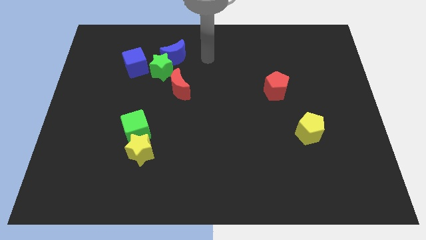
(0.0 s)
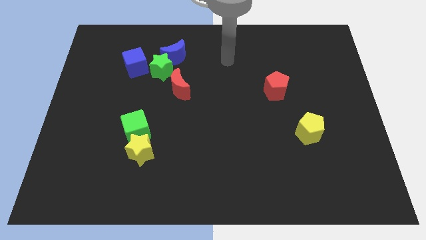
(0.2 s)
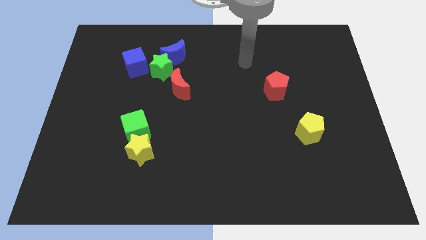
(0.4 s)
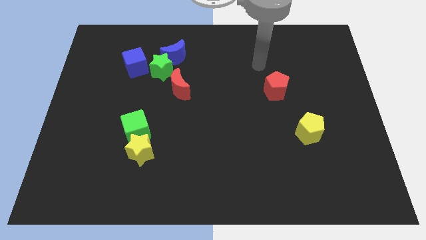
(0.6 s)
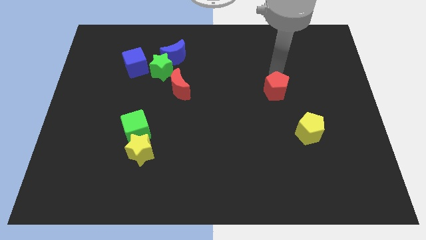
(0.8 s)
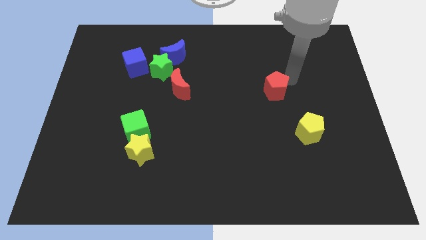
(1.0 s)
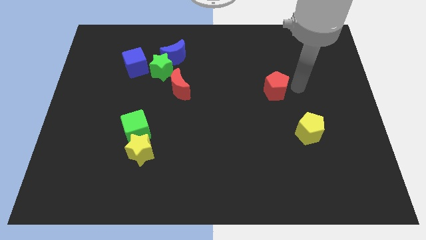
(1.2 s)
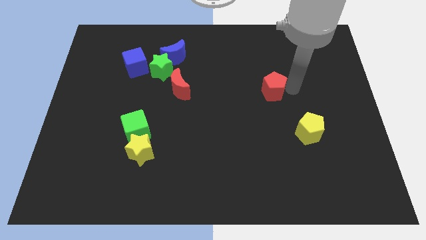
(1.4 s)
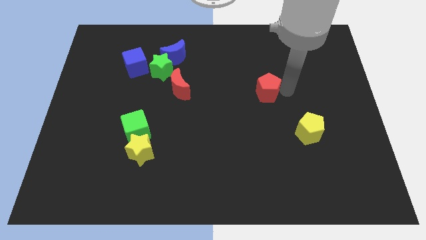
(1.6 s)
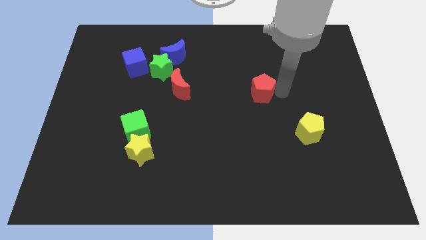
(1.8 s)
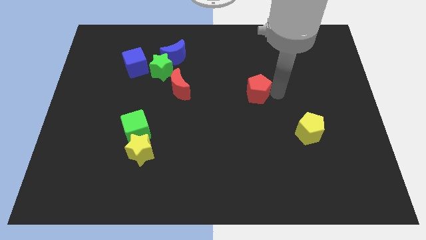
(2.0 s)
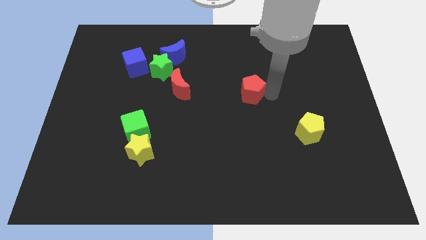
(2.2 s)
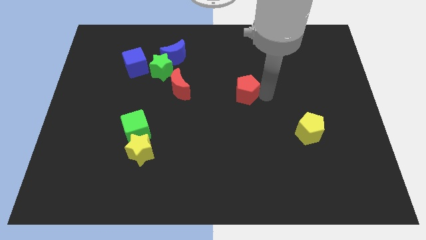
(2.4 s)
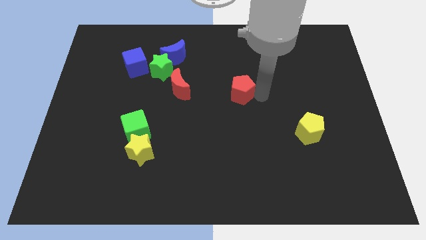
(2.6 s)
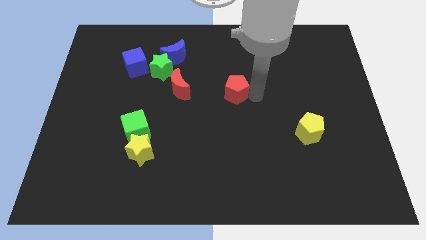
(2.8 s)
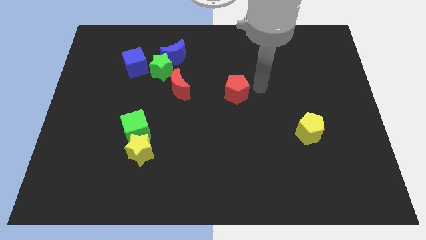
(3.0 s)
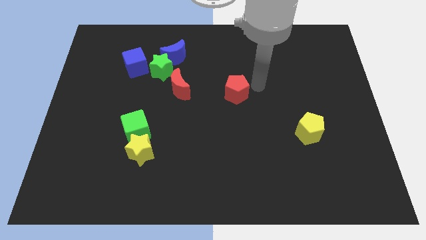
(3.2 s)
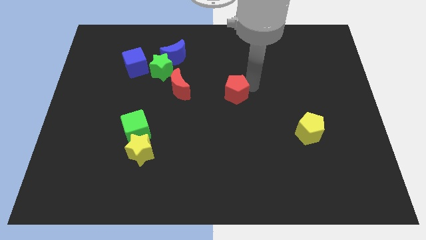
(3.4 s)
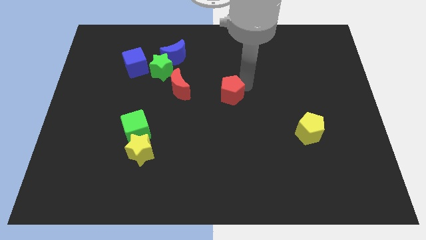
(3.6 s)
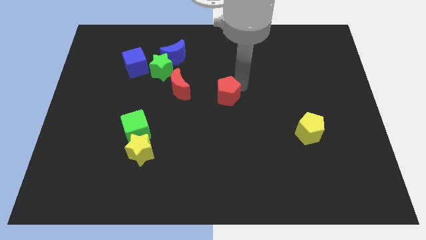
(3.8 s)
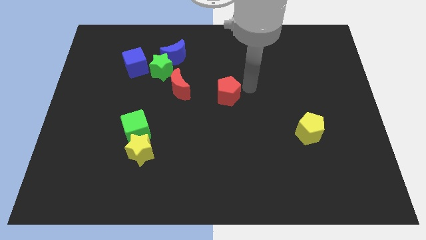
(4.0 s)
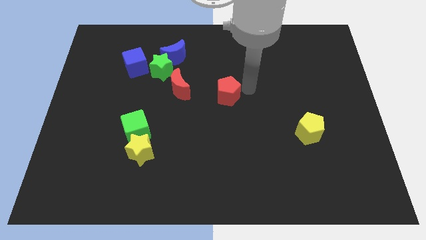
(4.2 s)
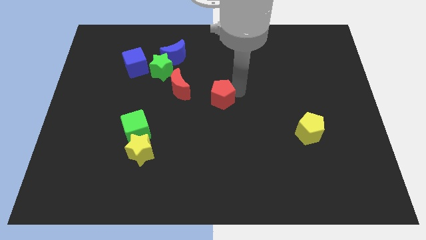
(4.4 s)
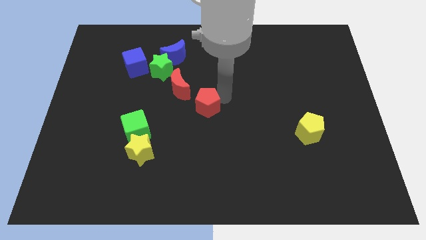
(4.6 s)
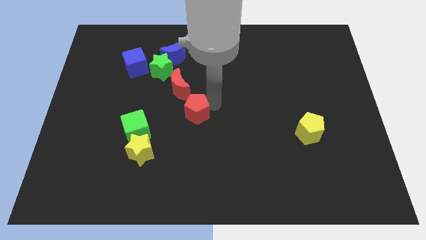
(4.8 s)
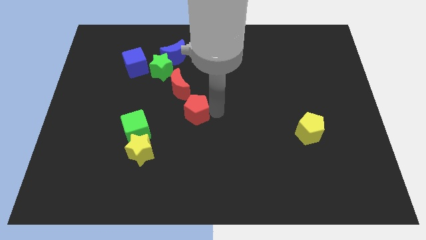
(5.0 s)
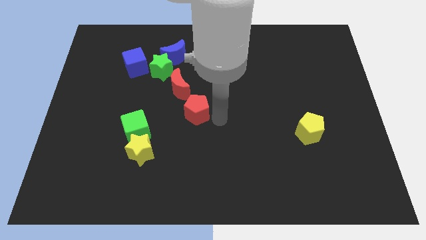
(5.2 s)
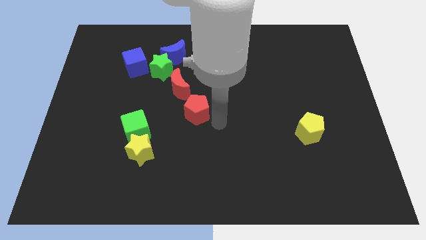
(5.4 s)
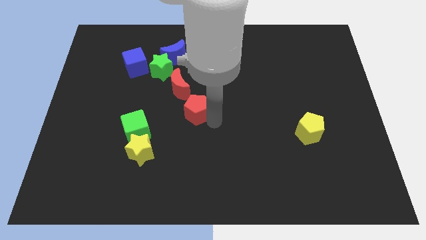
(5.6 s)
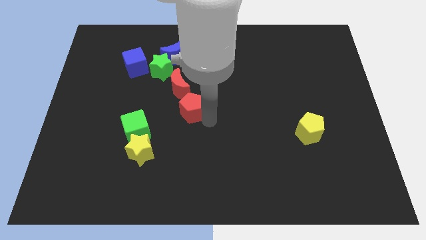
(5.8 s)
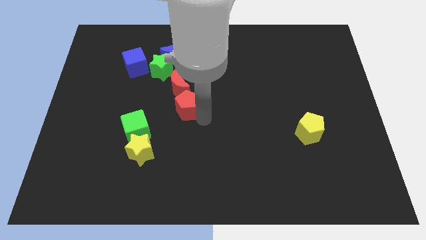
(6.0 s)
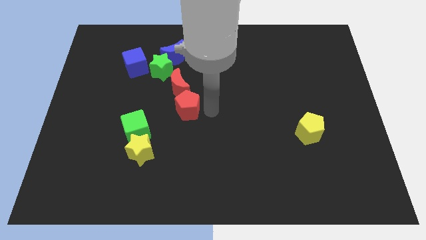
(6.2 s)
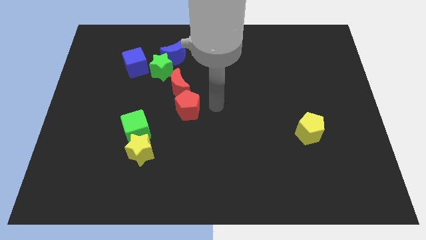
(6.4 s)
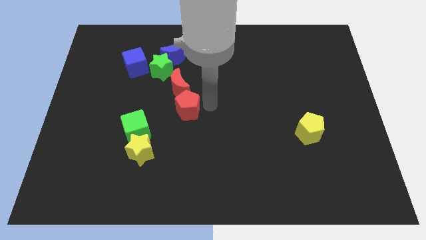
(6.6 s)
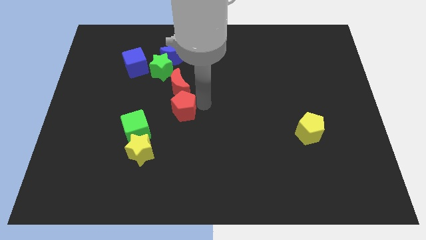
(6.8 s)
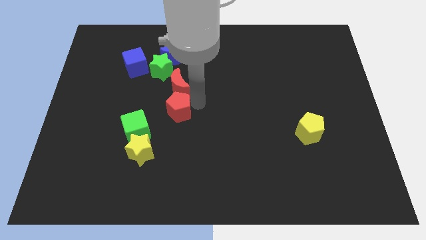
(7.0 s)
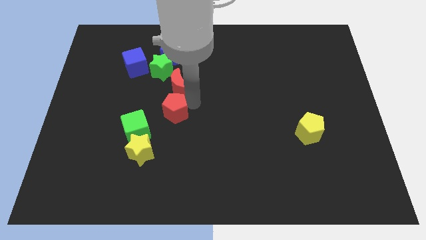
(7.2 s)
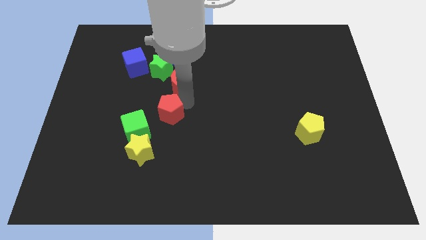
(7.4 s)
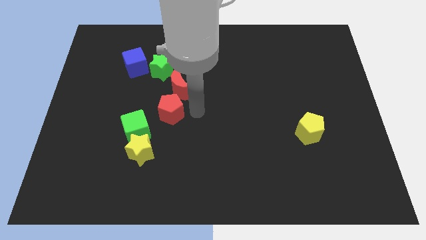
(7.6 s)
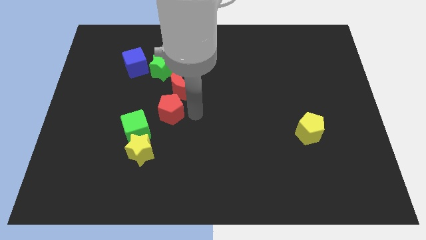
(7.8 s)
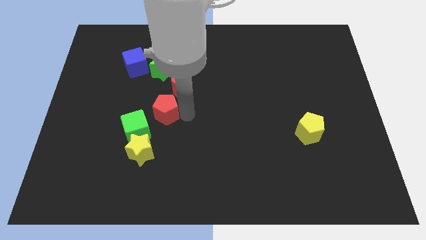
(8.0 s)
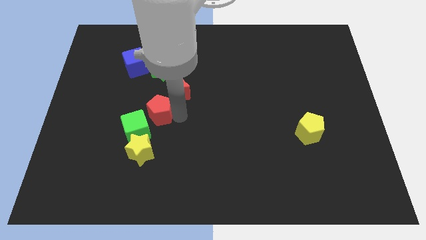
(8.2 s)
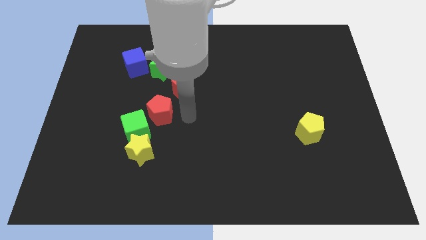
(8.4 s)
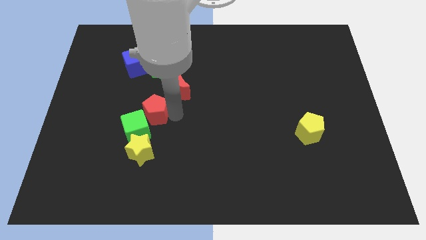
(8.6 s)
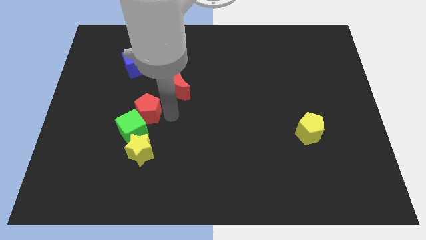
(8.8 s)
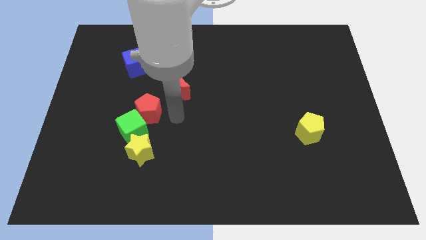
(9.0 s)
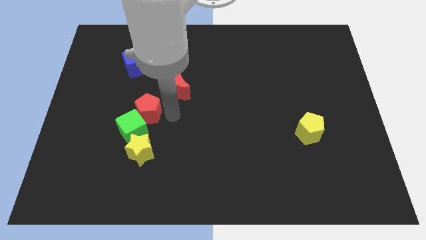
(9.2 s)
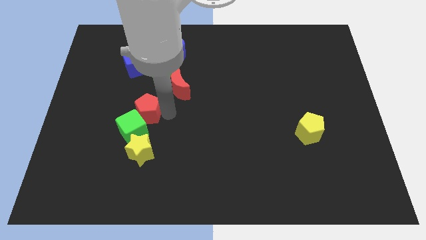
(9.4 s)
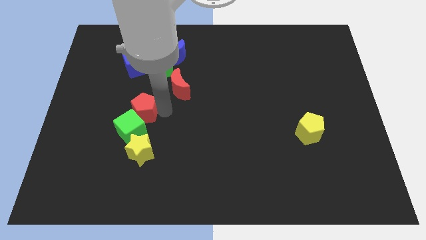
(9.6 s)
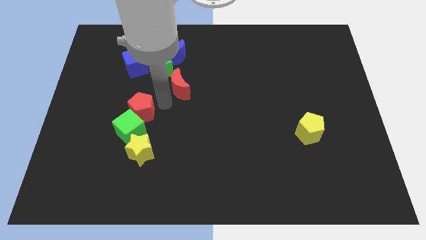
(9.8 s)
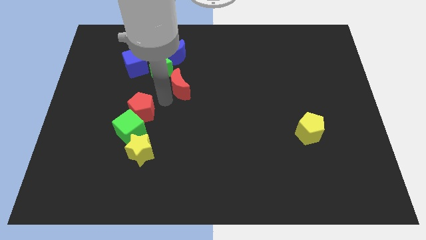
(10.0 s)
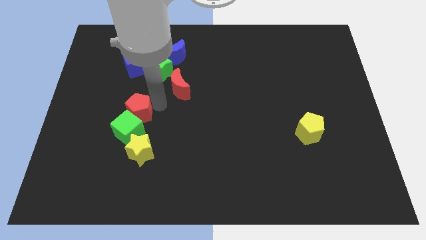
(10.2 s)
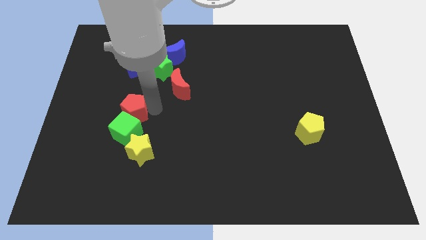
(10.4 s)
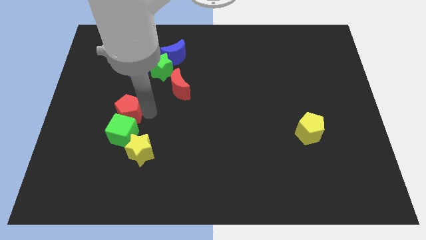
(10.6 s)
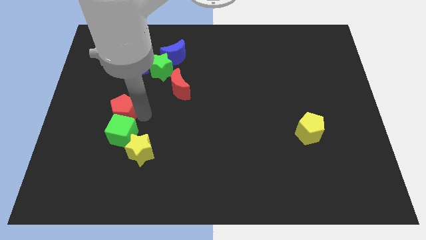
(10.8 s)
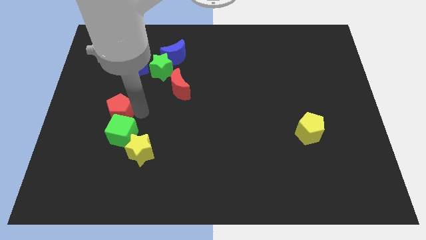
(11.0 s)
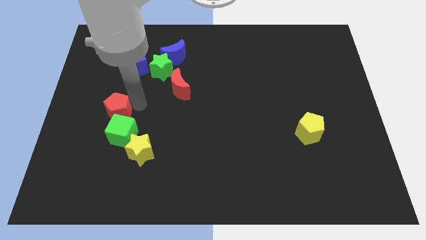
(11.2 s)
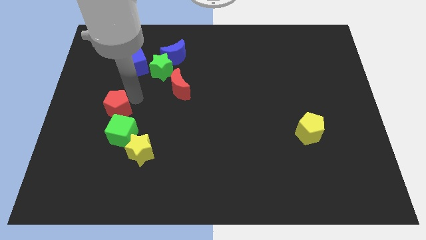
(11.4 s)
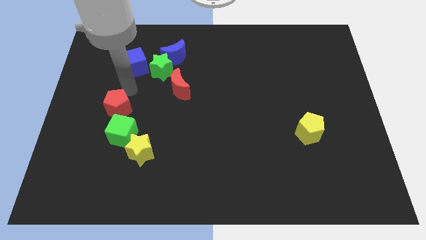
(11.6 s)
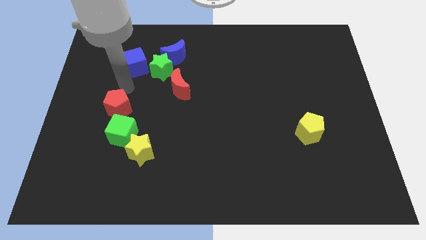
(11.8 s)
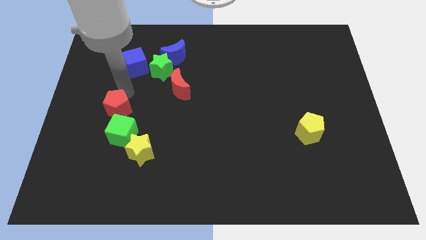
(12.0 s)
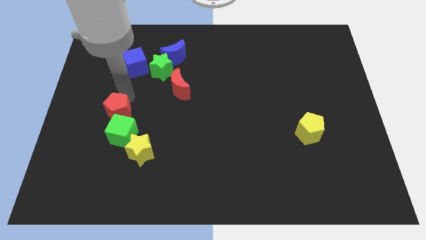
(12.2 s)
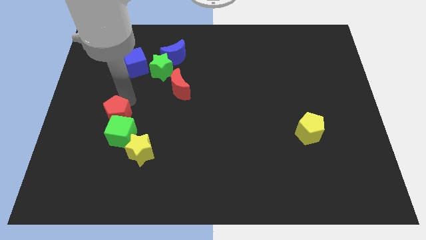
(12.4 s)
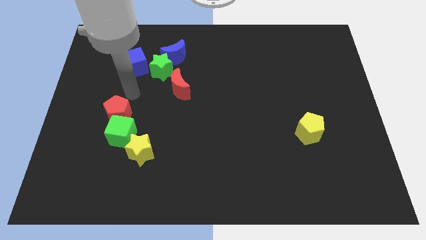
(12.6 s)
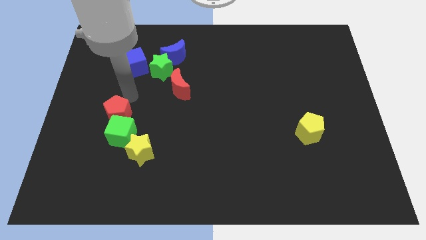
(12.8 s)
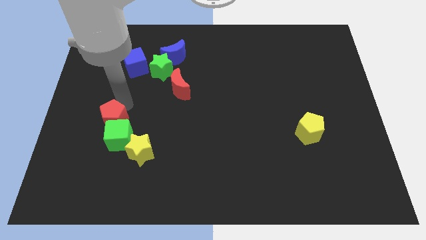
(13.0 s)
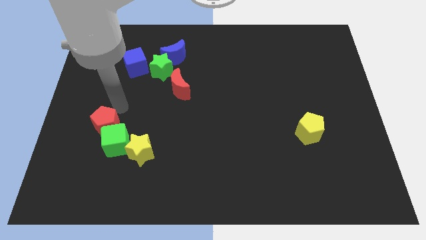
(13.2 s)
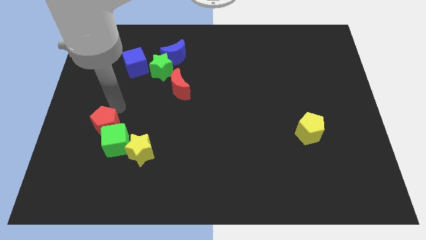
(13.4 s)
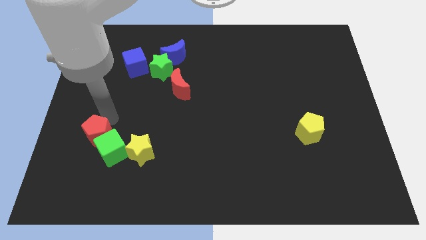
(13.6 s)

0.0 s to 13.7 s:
push the red pentagon to the left of the yellow star
